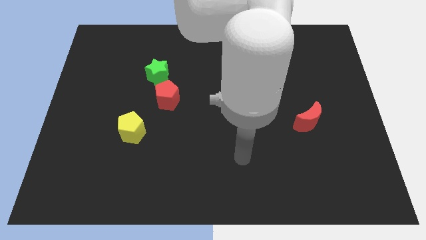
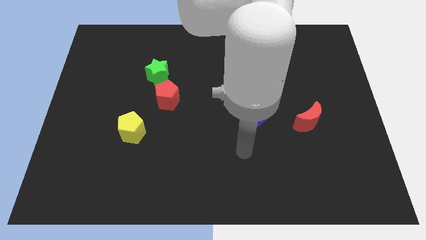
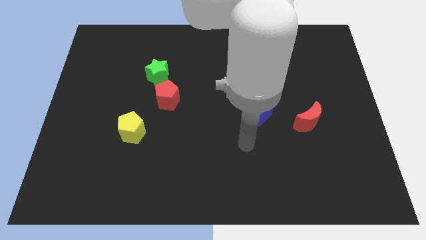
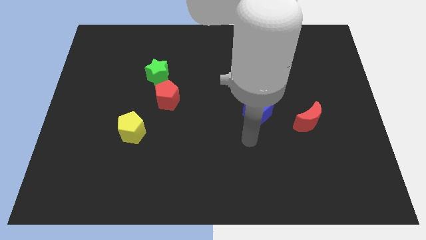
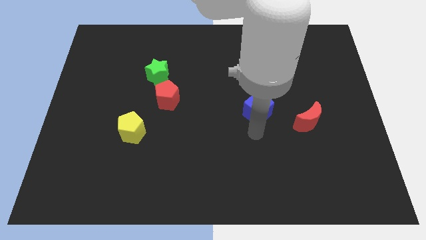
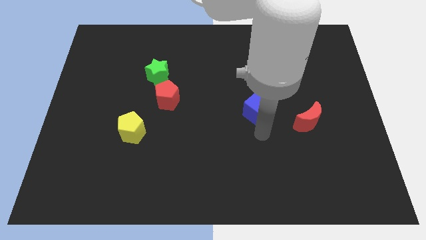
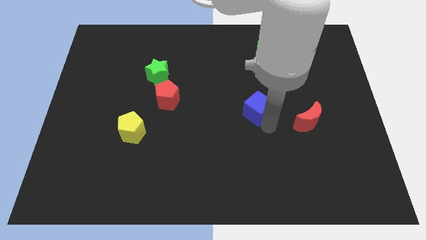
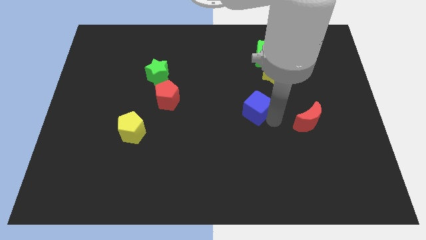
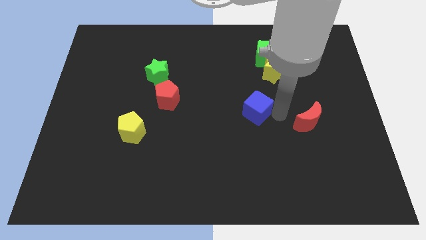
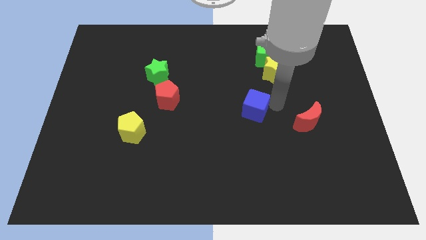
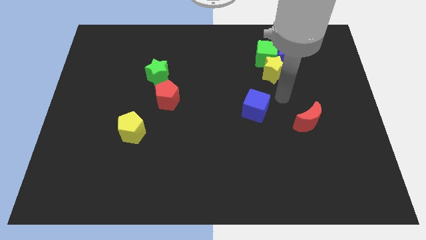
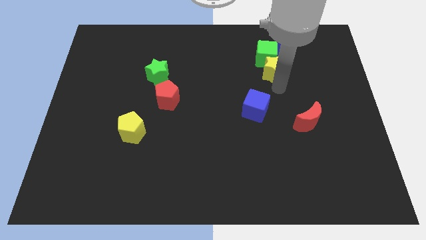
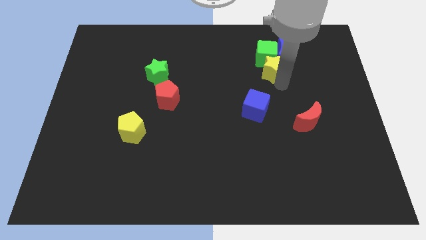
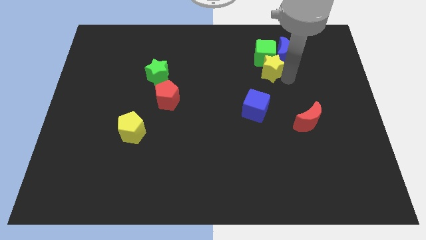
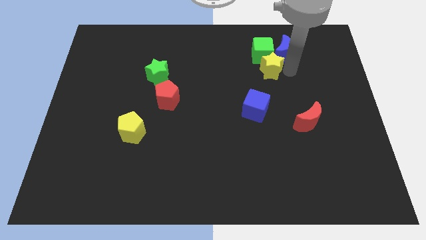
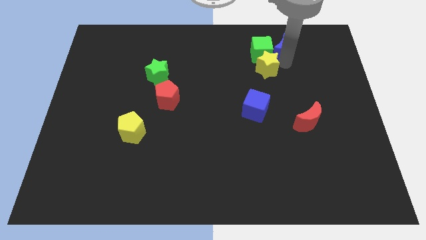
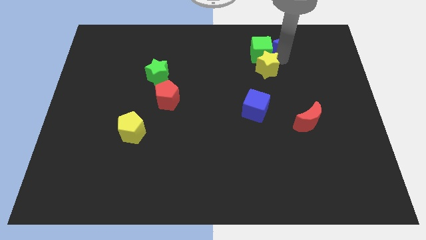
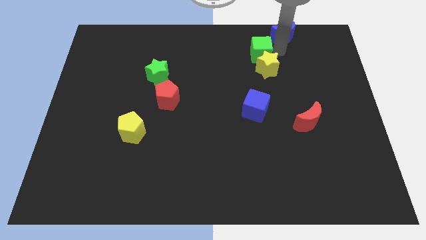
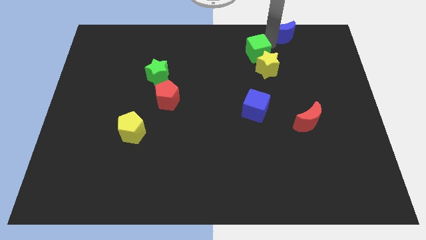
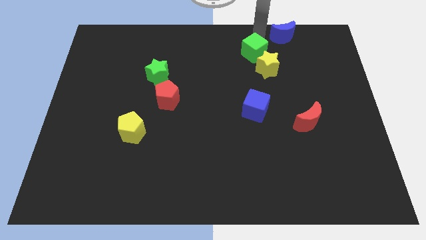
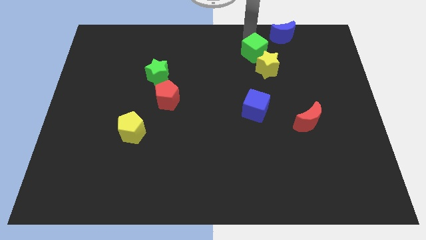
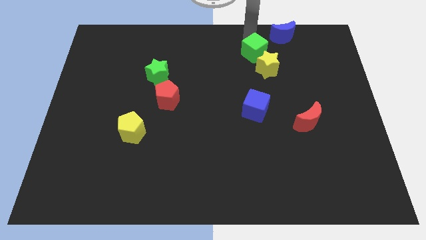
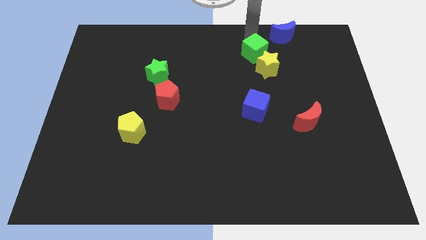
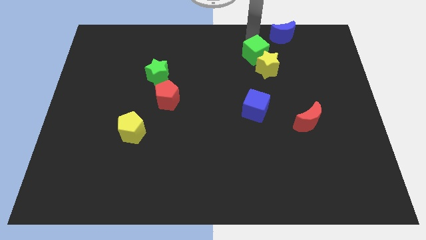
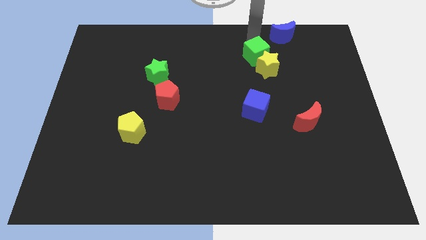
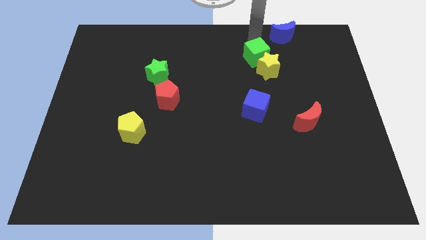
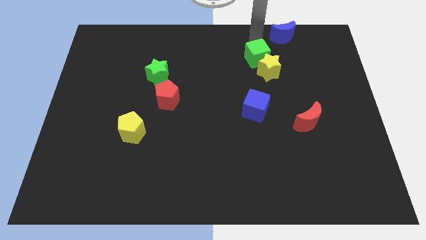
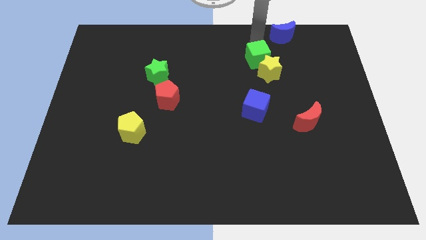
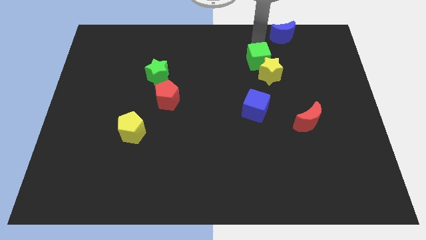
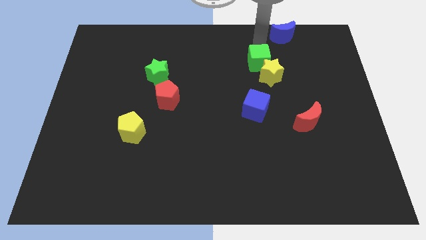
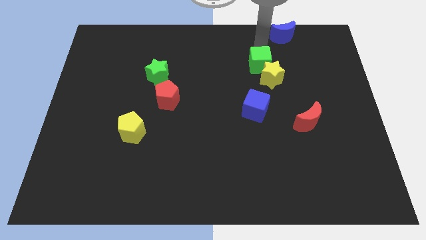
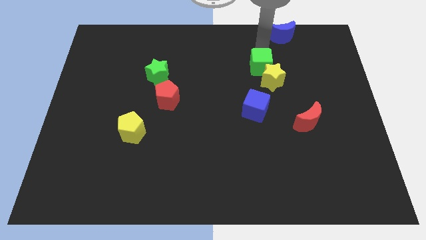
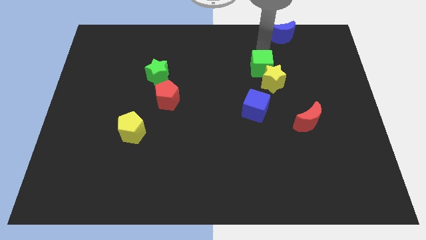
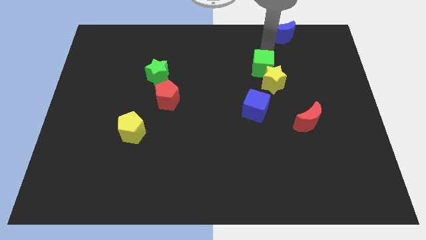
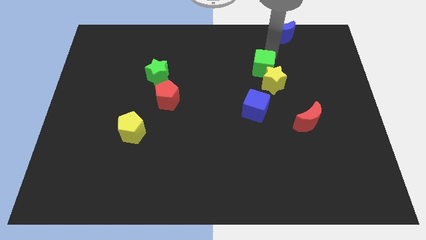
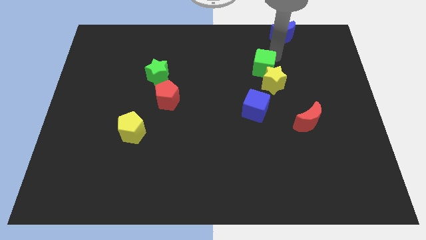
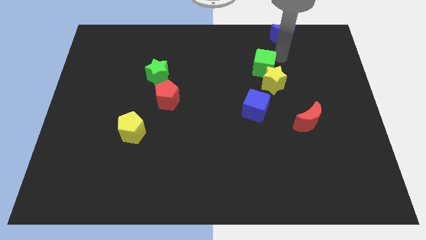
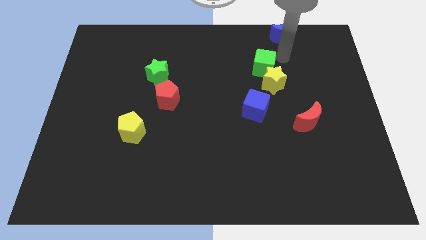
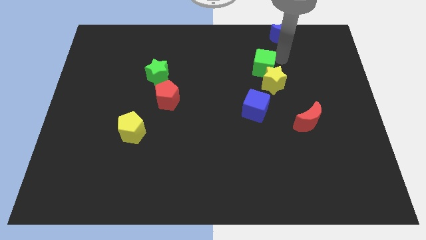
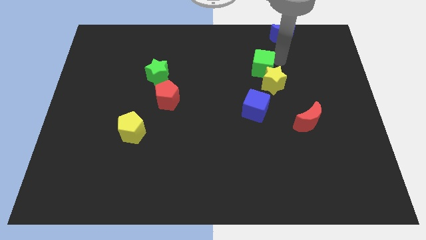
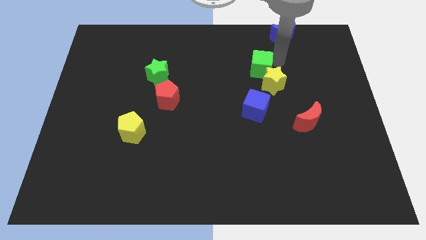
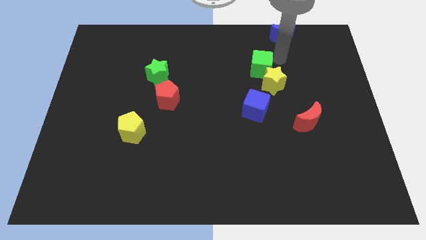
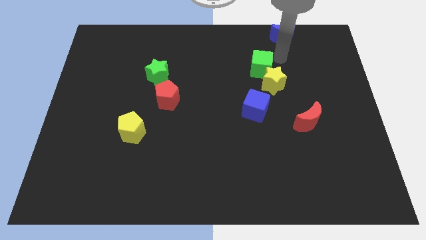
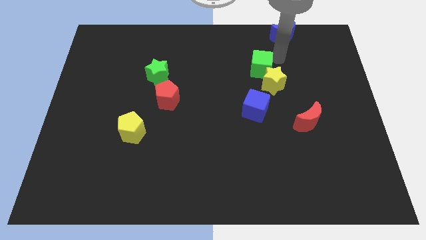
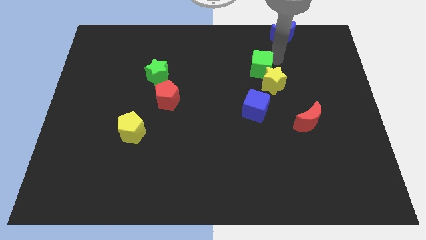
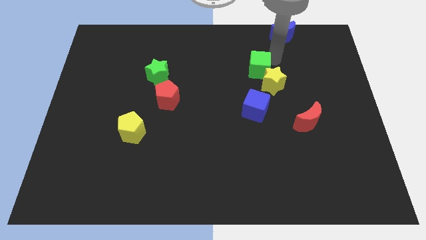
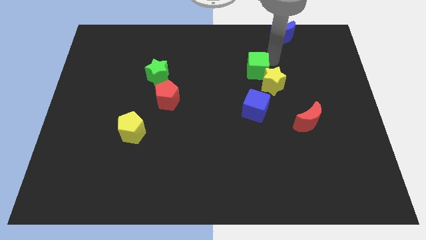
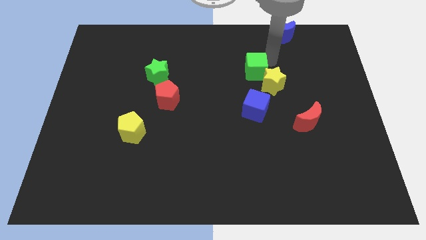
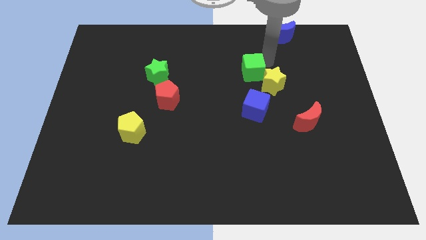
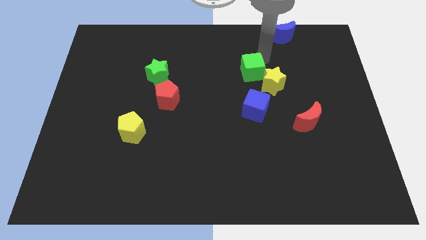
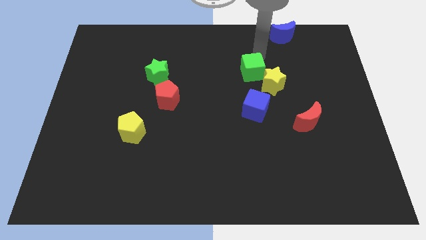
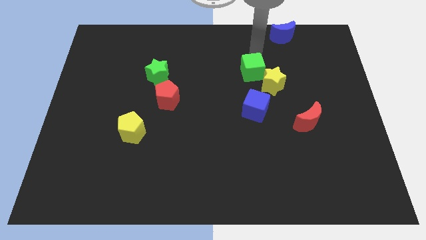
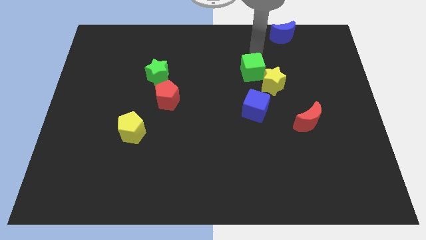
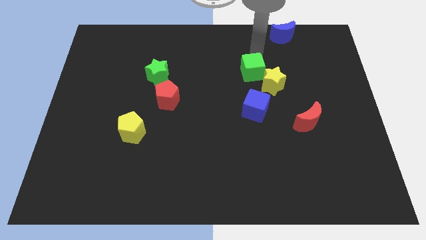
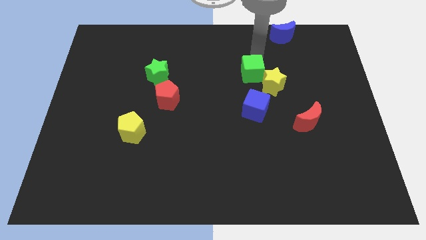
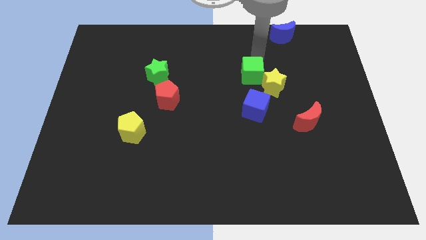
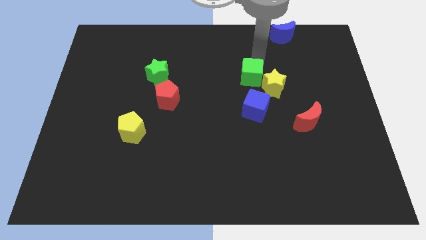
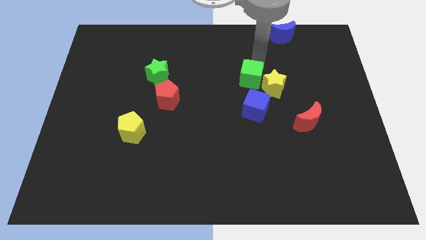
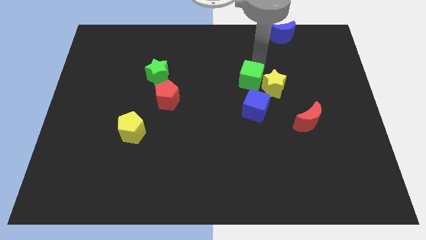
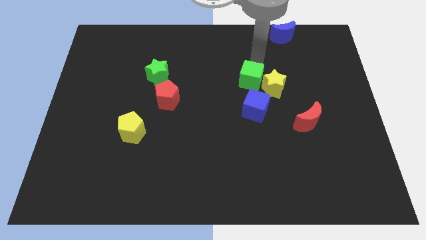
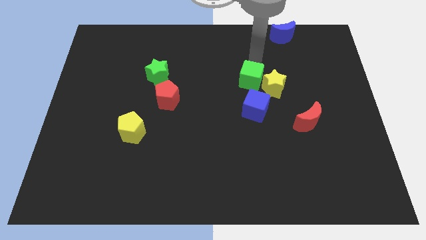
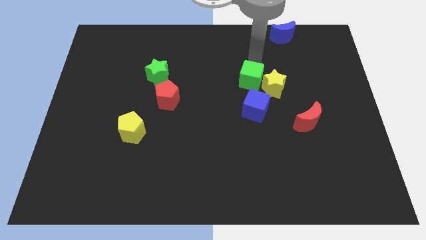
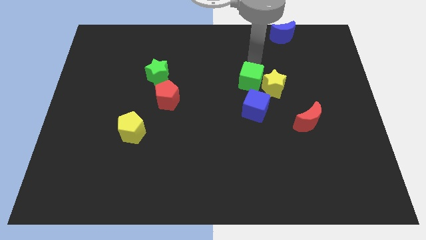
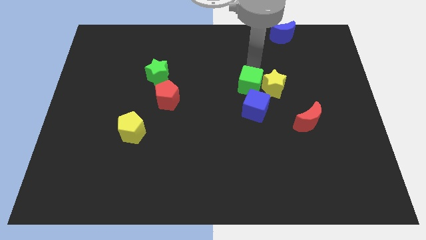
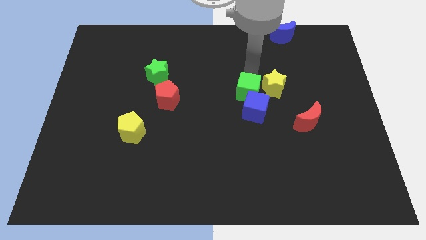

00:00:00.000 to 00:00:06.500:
slide the green cube next to the blue cube

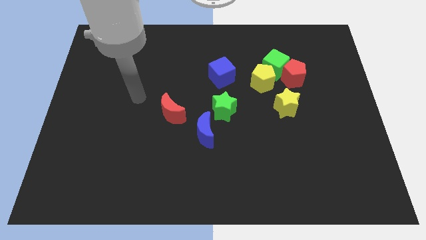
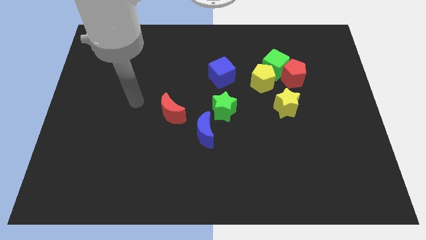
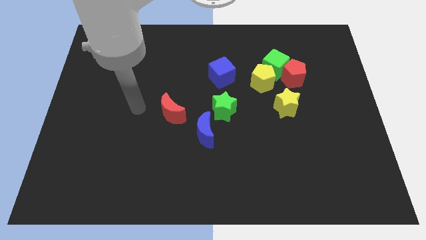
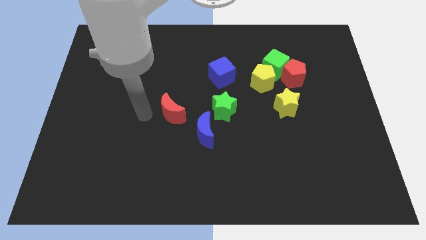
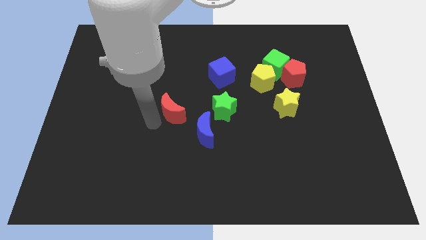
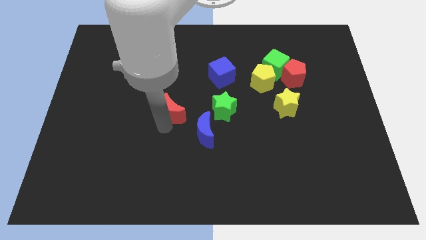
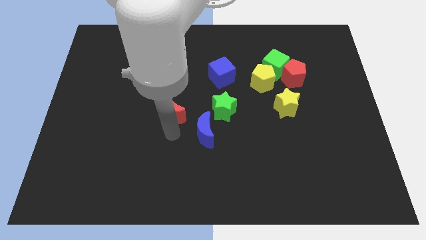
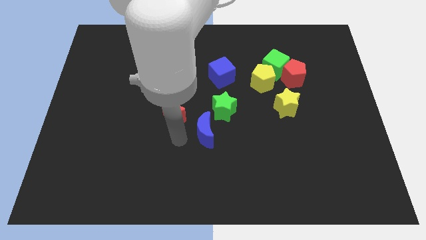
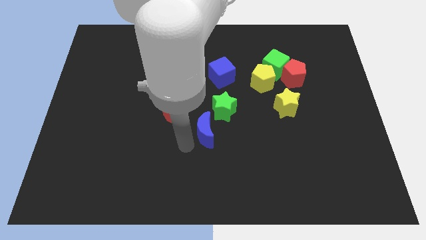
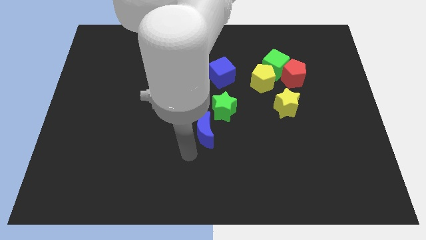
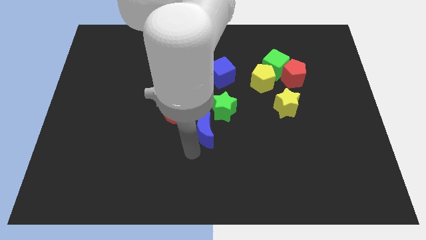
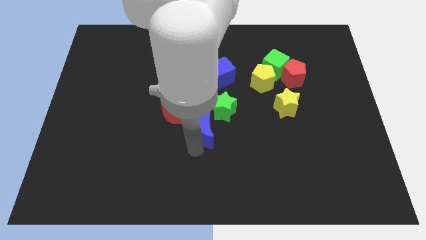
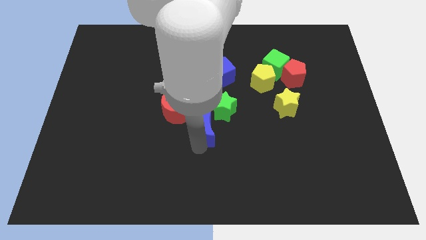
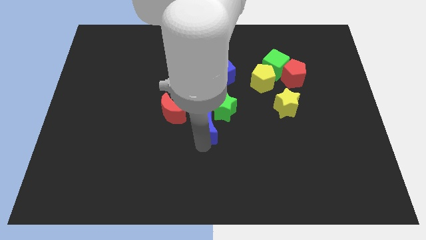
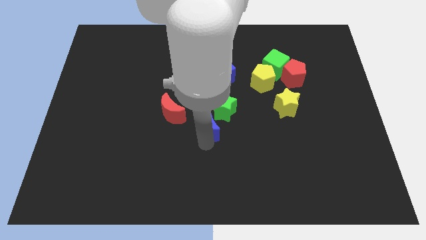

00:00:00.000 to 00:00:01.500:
push the blue moon towards the green star
